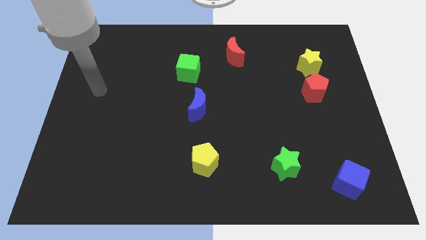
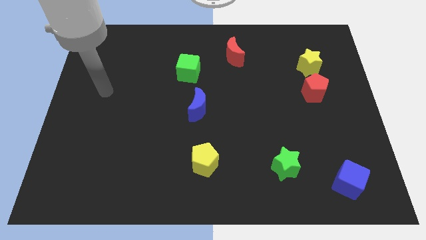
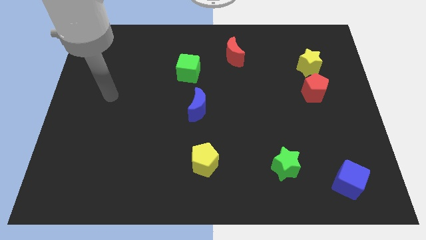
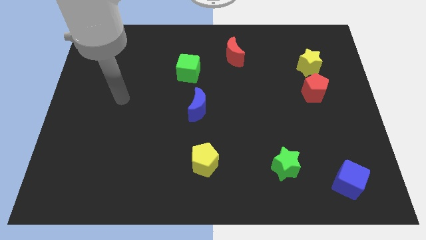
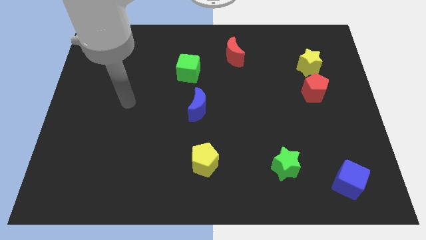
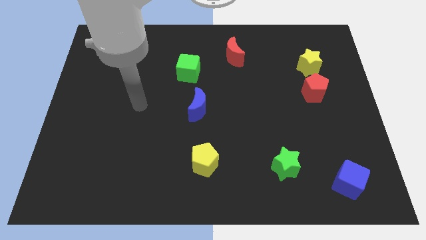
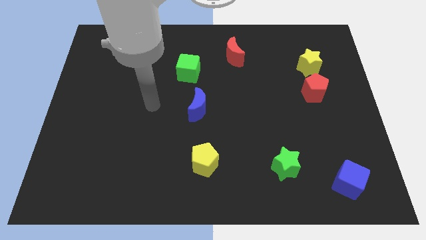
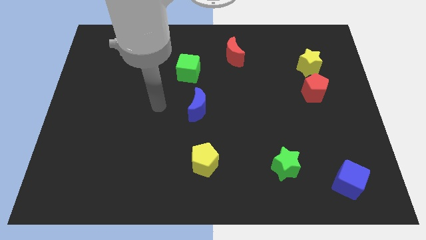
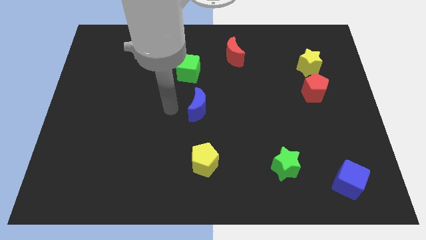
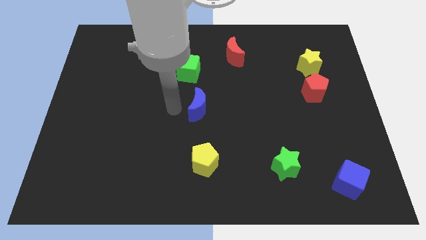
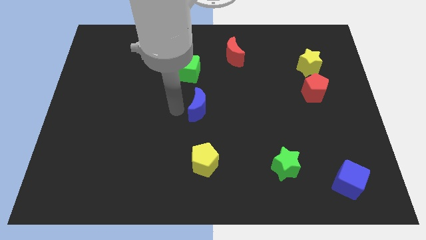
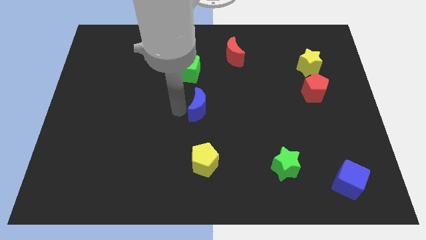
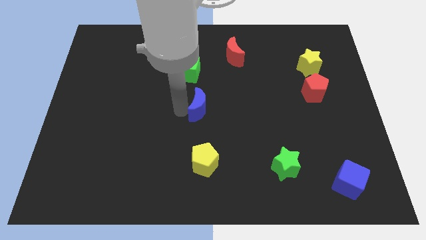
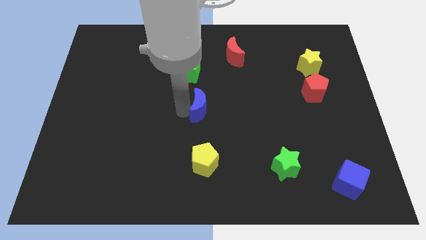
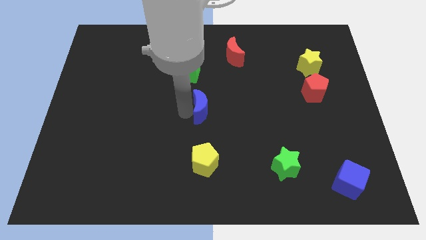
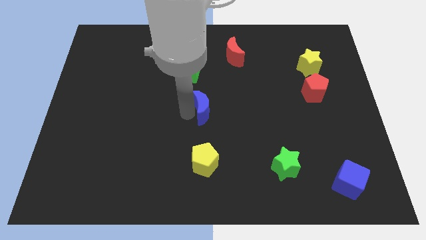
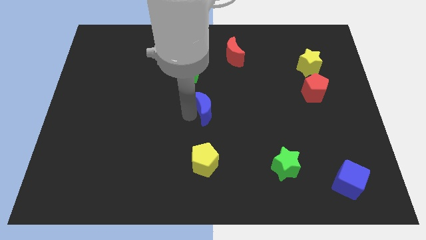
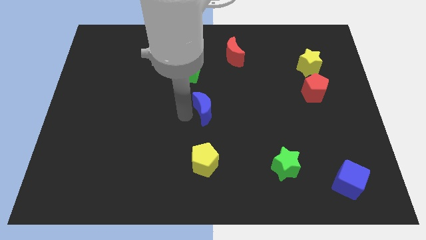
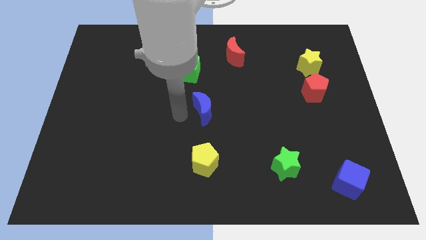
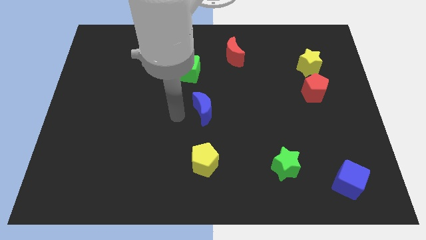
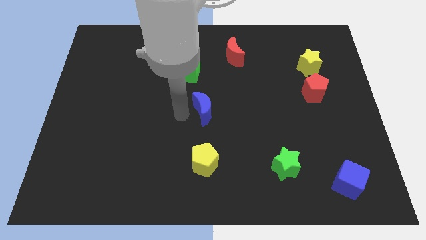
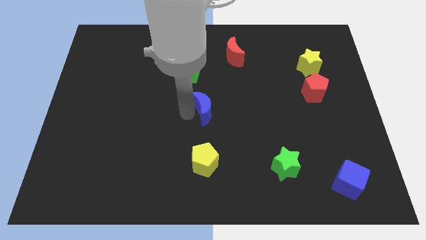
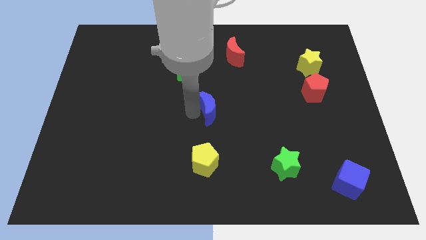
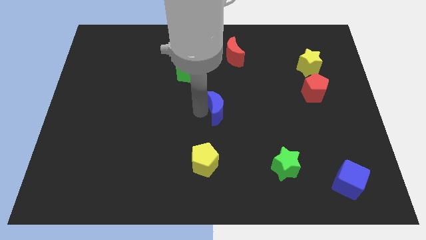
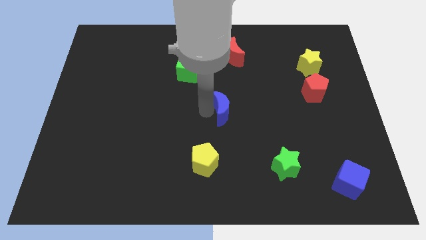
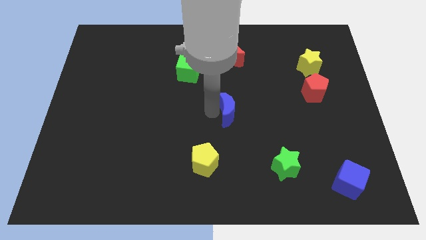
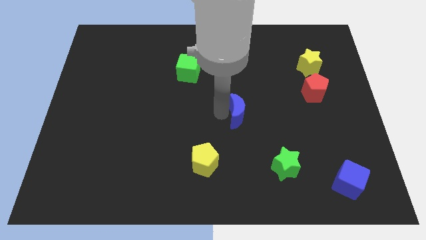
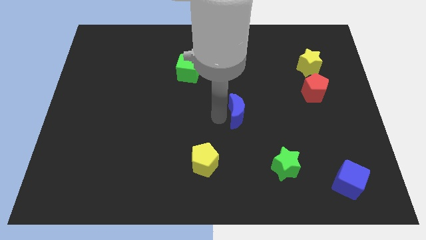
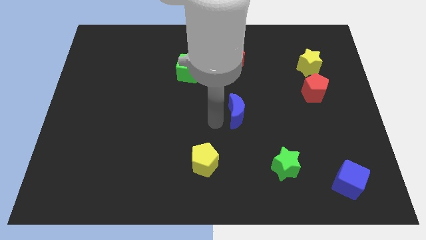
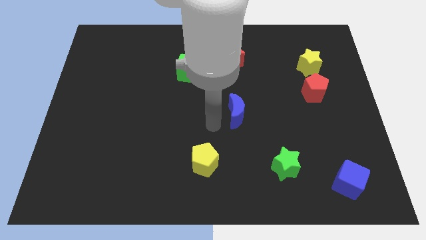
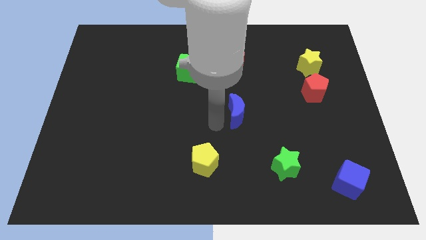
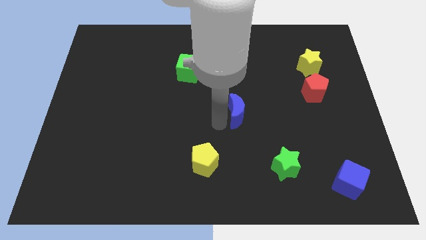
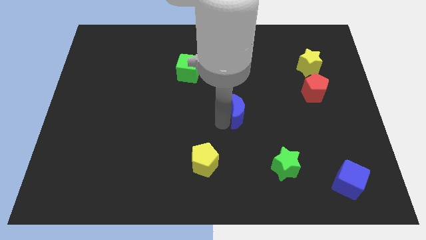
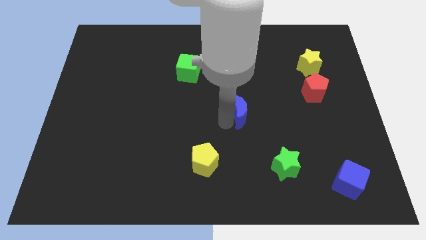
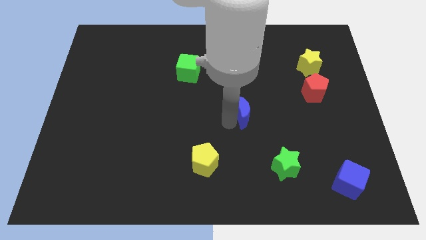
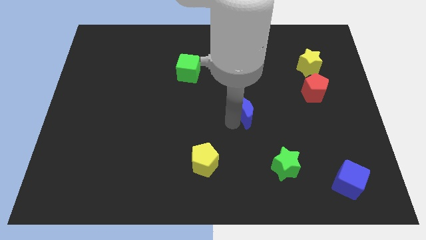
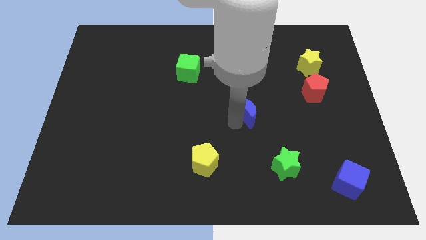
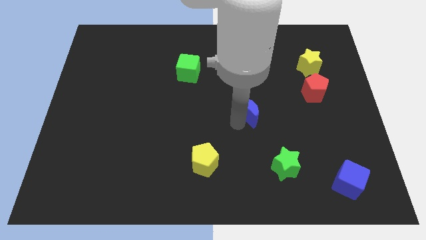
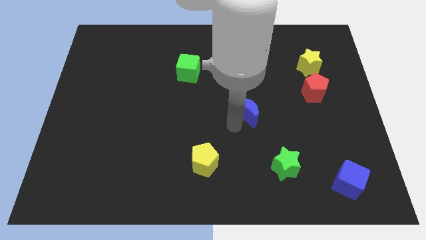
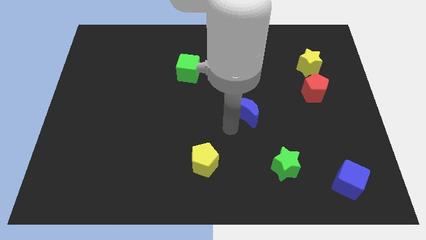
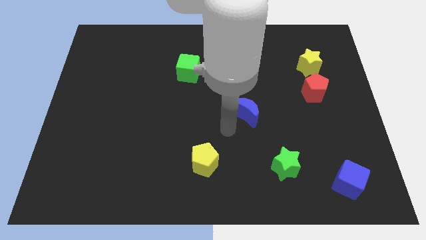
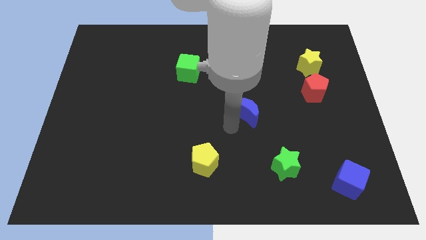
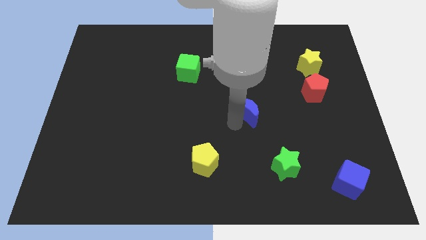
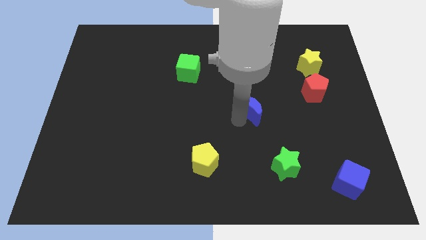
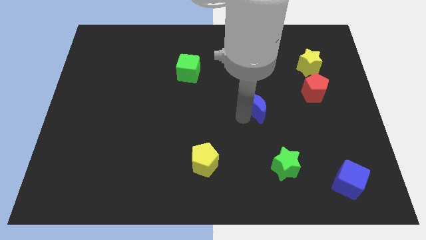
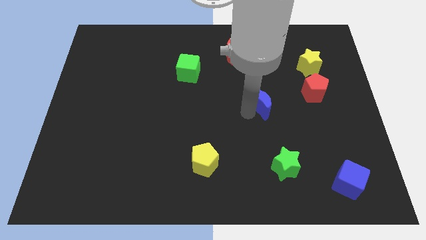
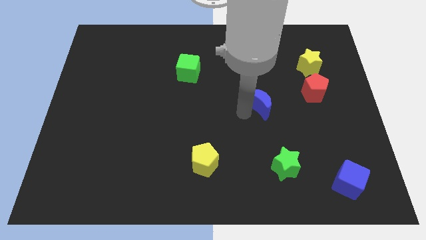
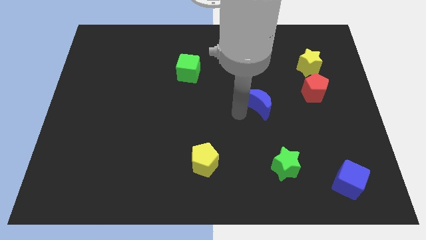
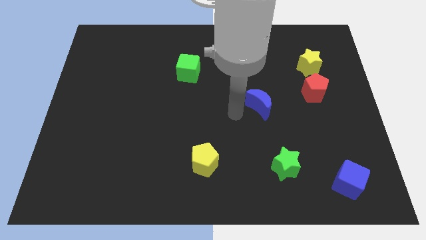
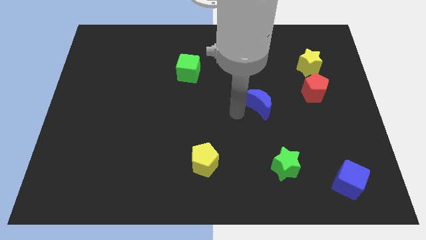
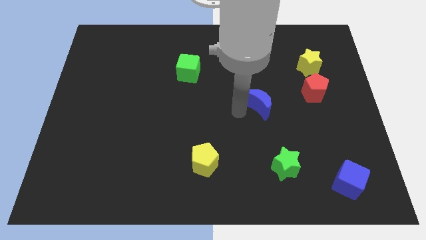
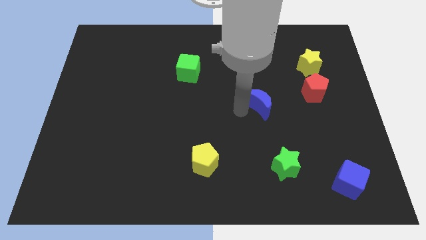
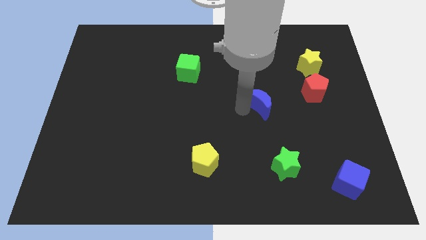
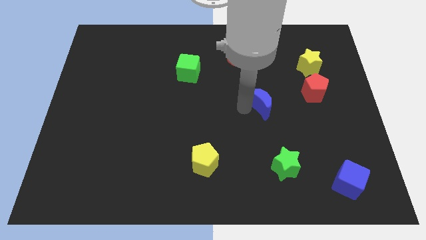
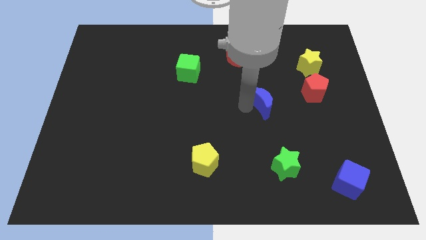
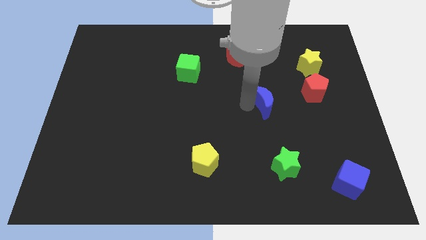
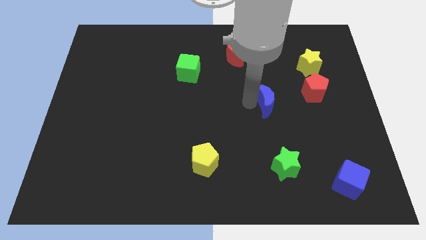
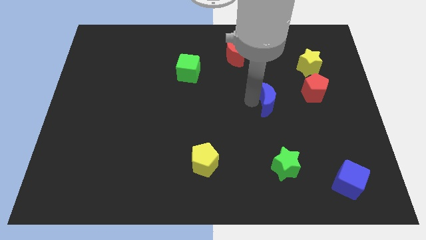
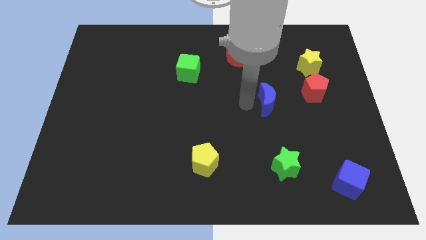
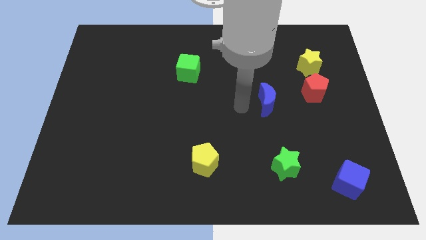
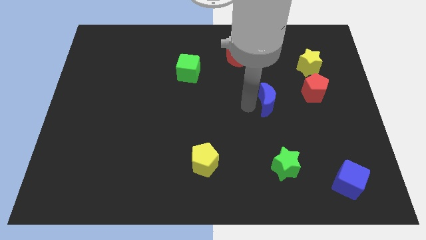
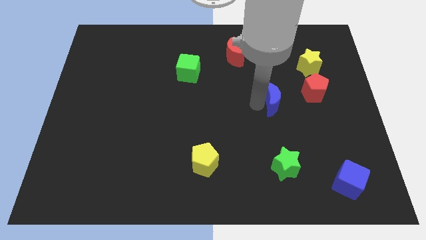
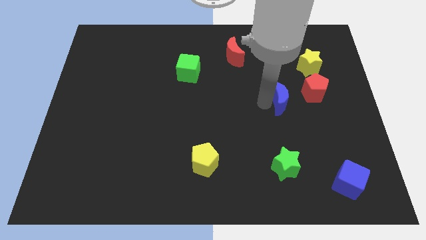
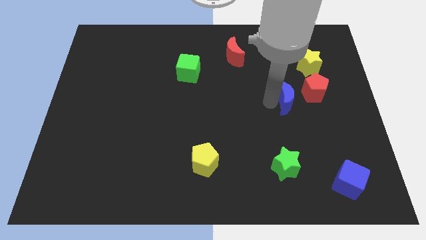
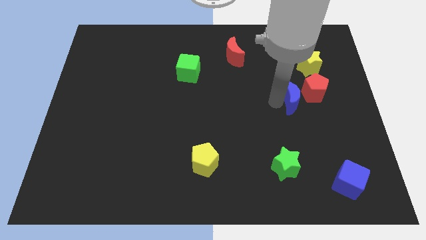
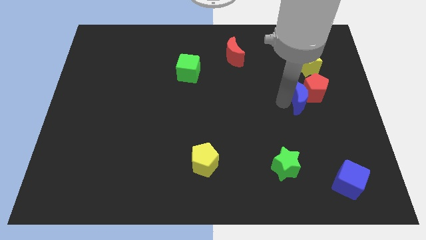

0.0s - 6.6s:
slide the blue moon next to the red pentagon

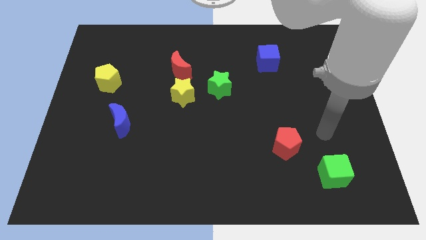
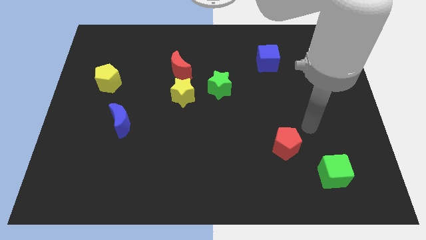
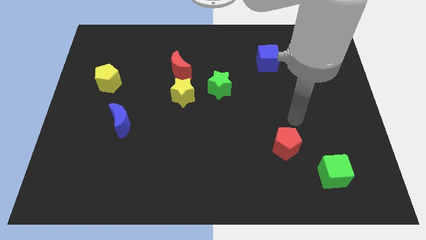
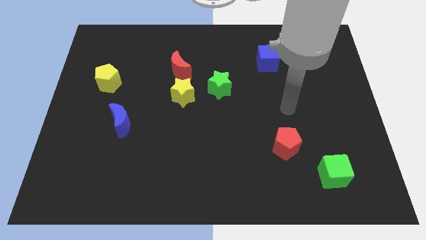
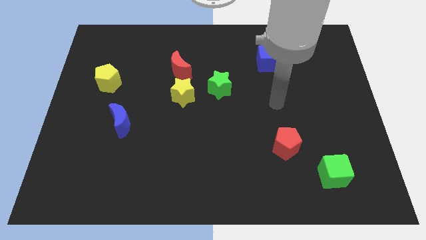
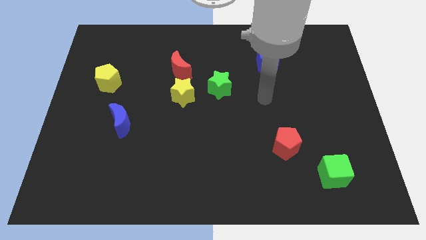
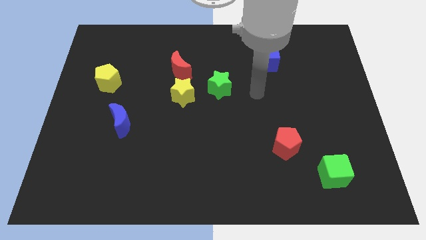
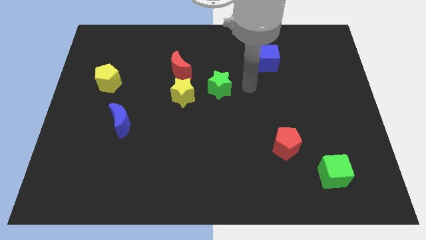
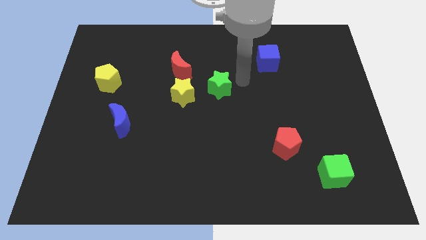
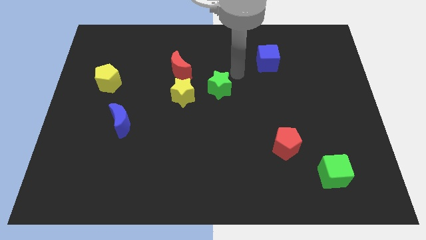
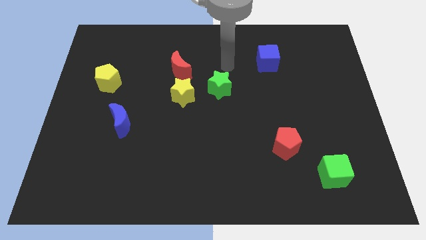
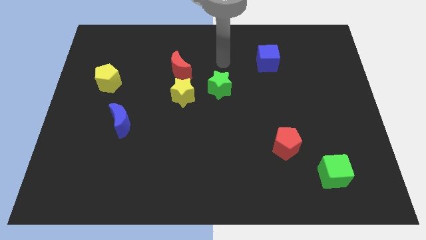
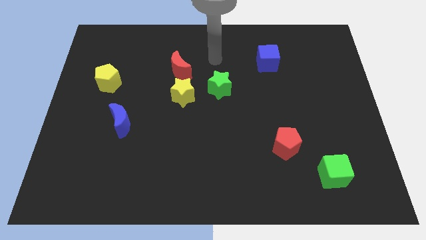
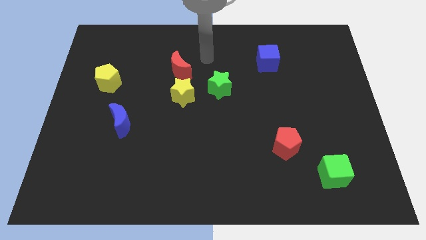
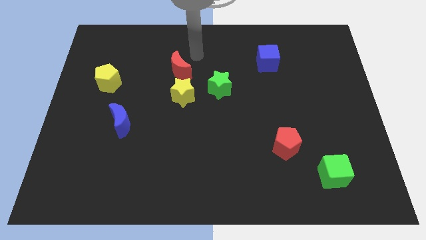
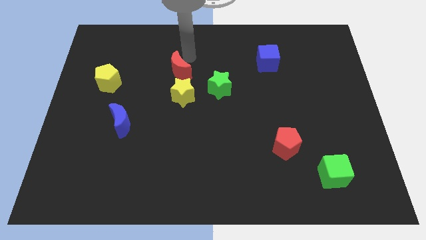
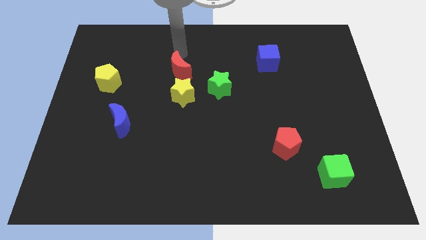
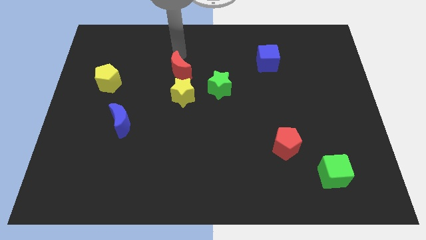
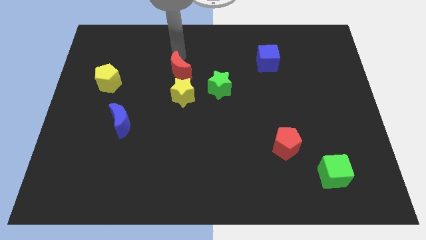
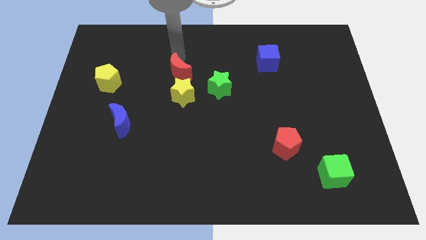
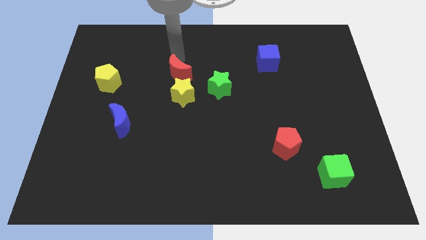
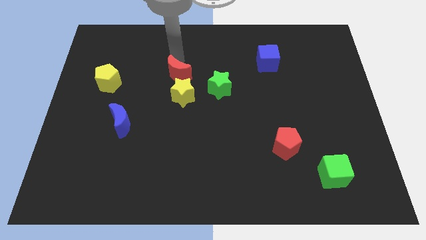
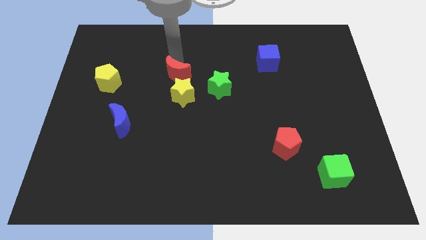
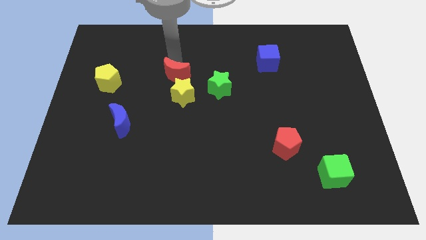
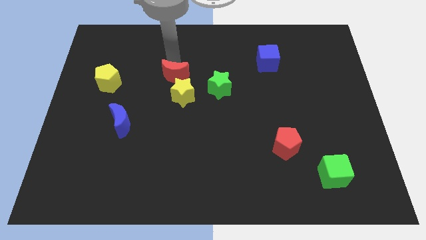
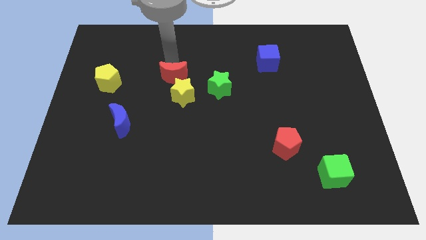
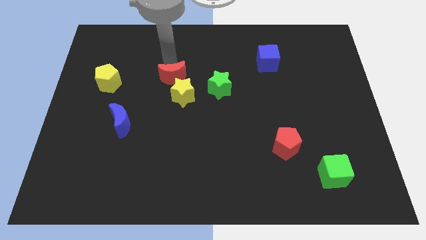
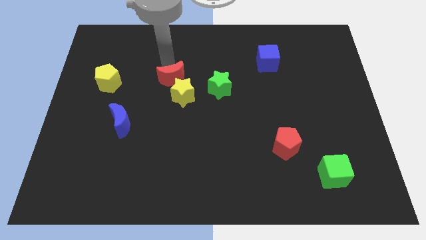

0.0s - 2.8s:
move the red moon next to the yellow star
